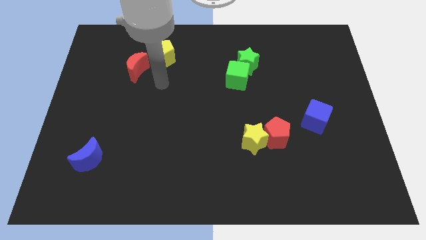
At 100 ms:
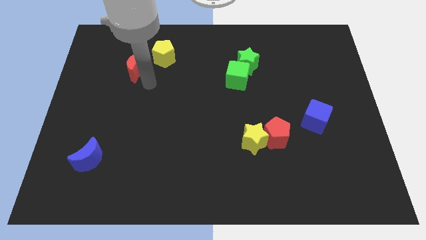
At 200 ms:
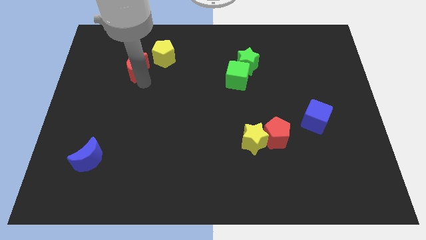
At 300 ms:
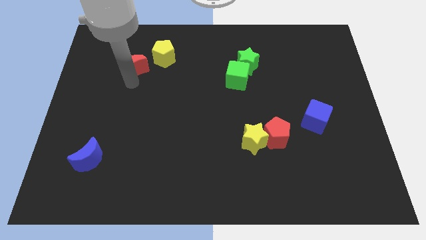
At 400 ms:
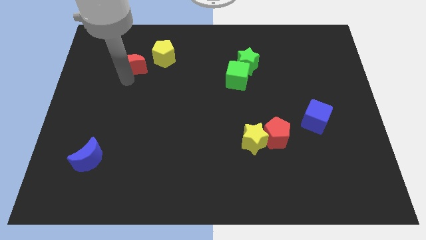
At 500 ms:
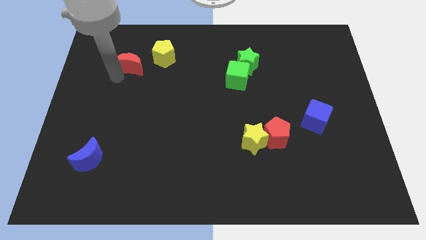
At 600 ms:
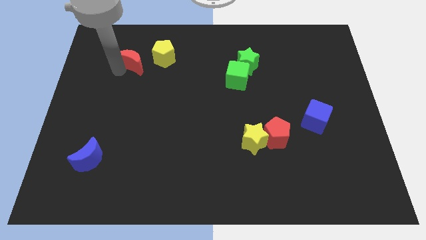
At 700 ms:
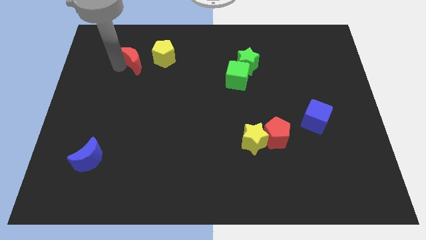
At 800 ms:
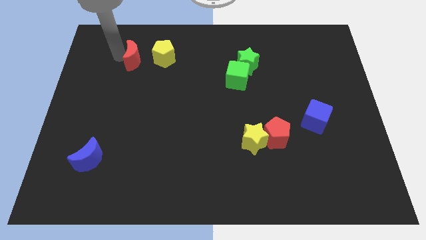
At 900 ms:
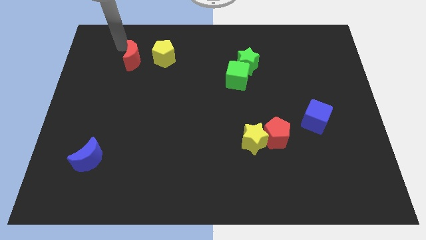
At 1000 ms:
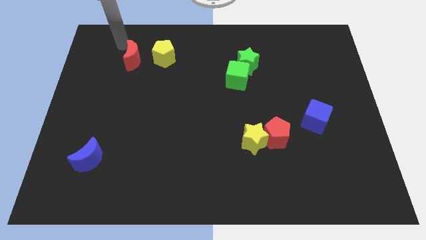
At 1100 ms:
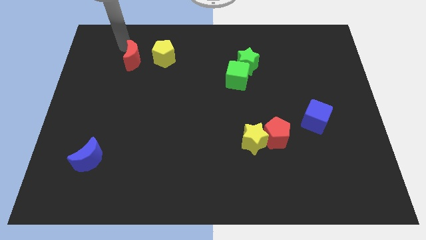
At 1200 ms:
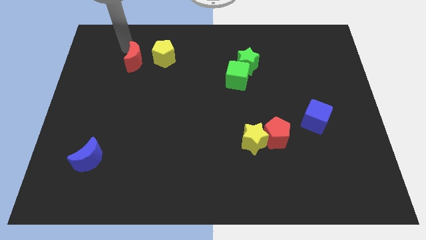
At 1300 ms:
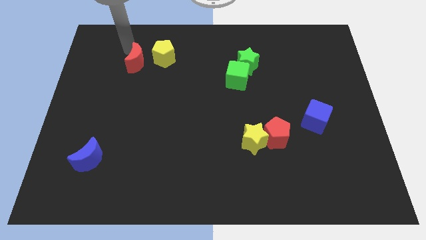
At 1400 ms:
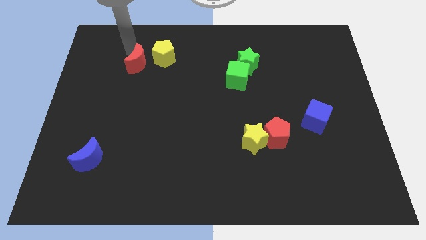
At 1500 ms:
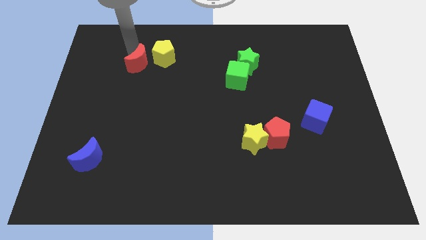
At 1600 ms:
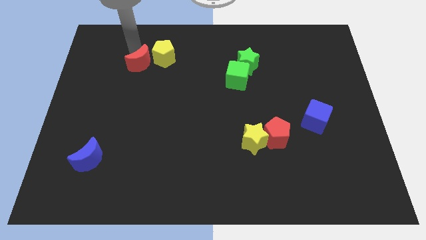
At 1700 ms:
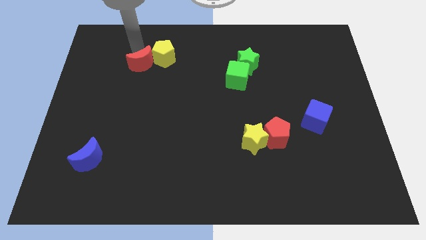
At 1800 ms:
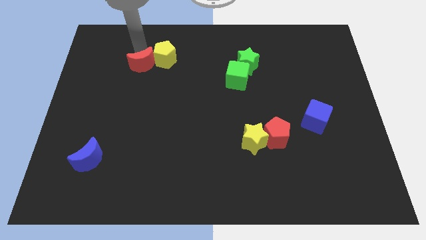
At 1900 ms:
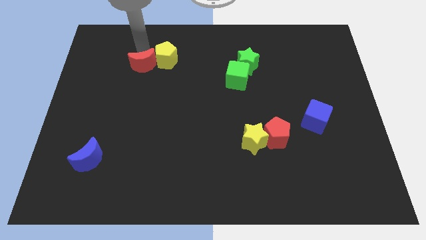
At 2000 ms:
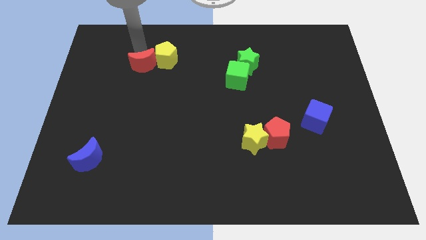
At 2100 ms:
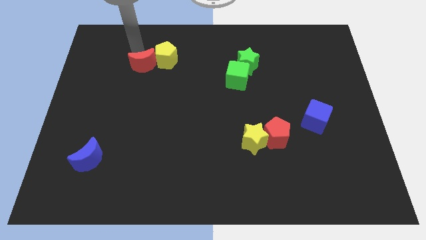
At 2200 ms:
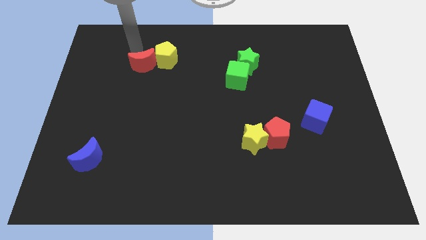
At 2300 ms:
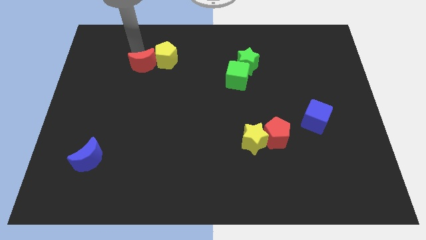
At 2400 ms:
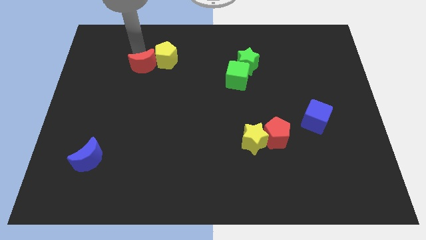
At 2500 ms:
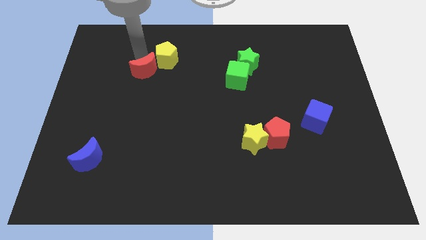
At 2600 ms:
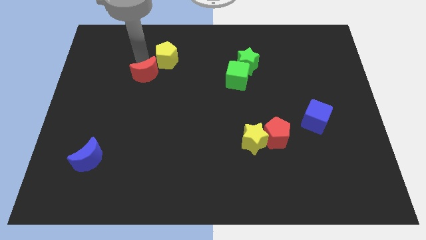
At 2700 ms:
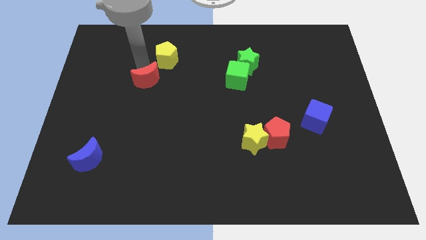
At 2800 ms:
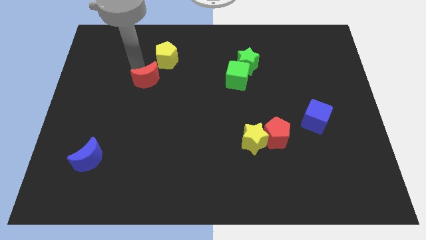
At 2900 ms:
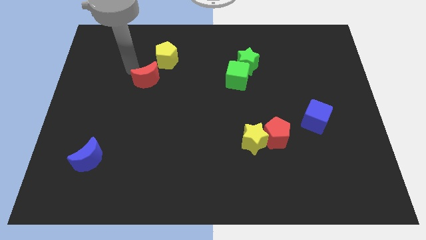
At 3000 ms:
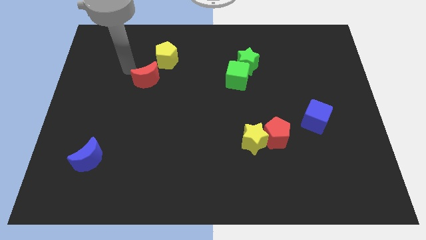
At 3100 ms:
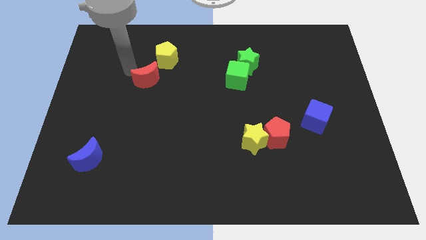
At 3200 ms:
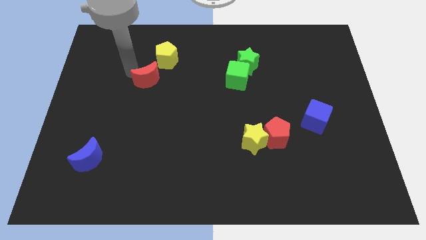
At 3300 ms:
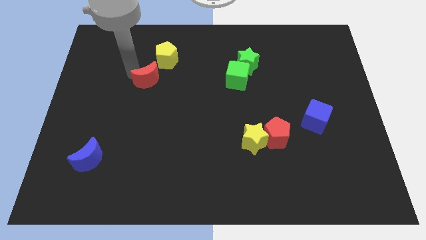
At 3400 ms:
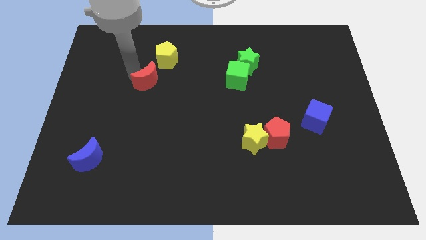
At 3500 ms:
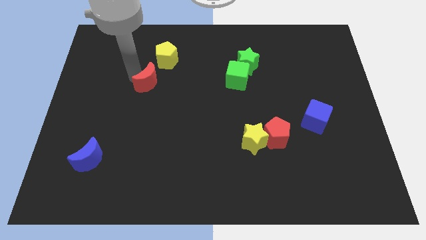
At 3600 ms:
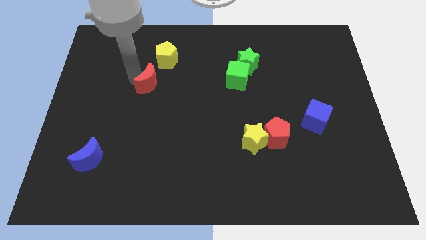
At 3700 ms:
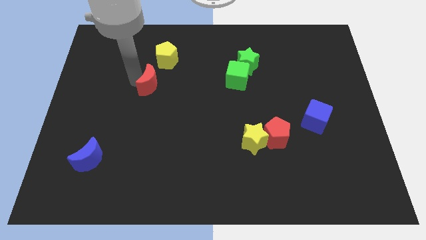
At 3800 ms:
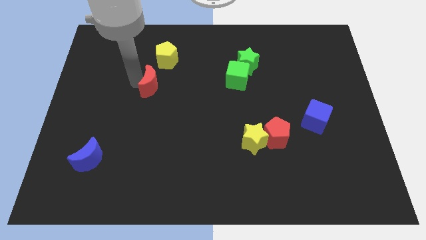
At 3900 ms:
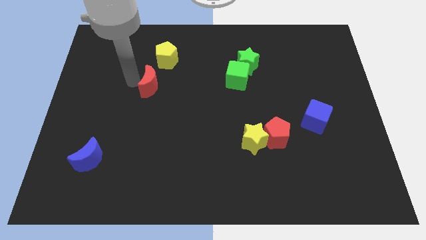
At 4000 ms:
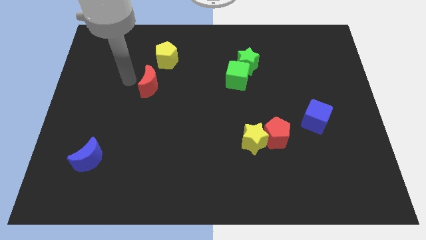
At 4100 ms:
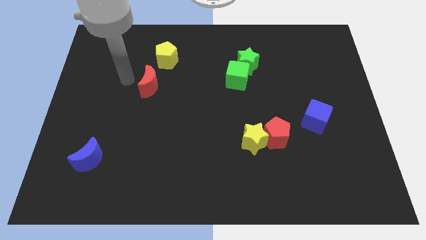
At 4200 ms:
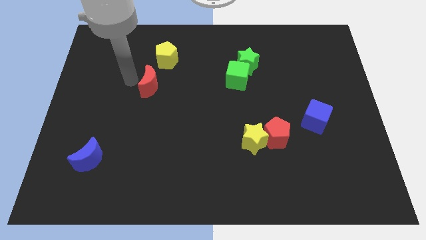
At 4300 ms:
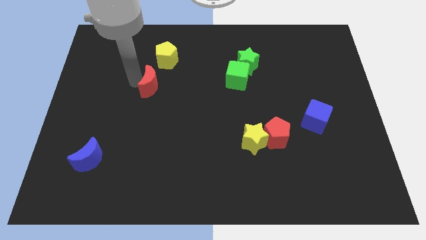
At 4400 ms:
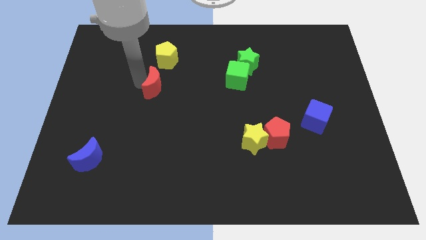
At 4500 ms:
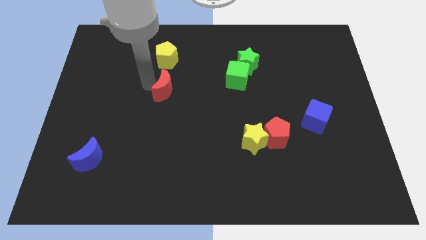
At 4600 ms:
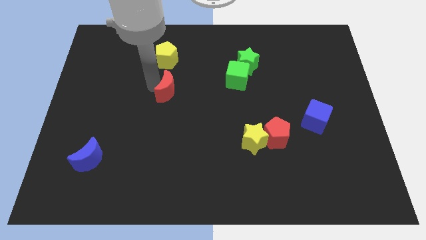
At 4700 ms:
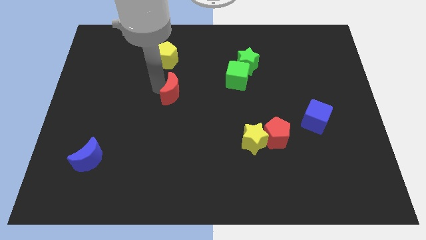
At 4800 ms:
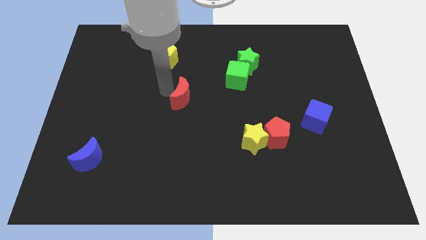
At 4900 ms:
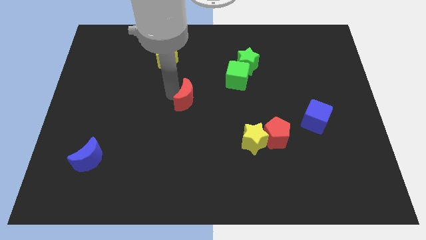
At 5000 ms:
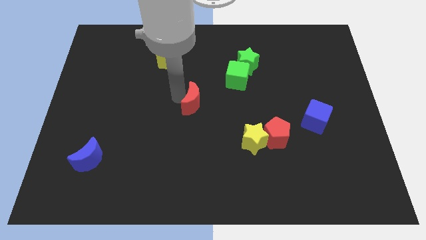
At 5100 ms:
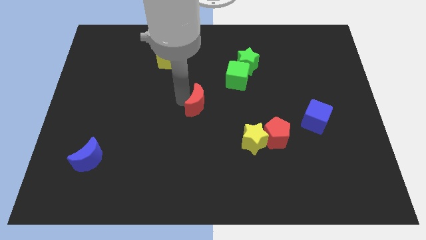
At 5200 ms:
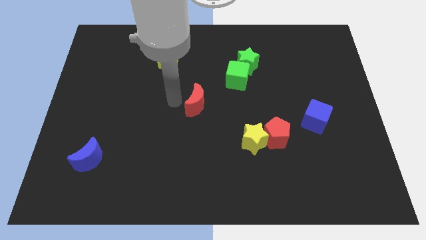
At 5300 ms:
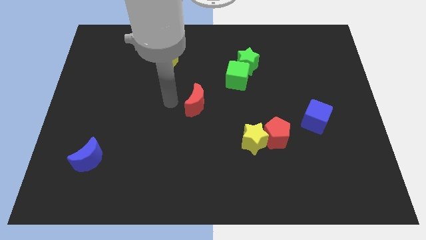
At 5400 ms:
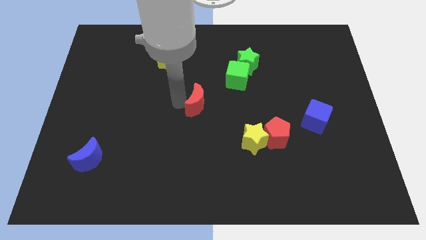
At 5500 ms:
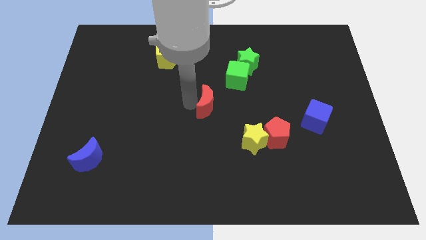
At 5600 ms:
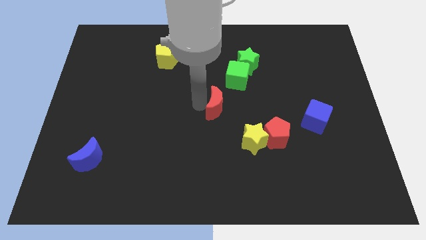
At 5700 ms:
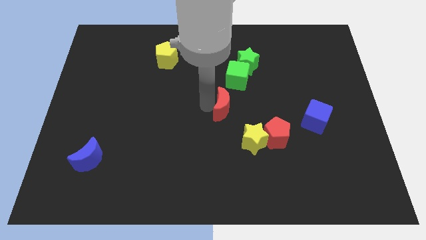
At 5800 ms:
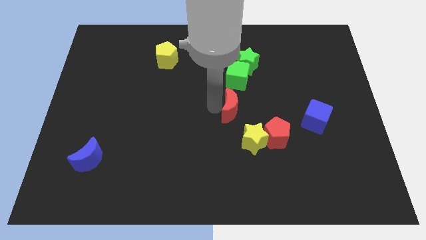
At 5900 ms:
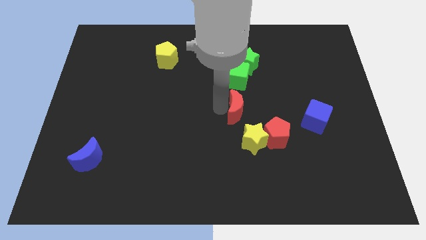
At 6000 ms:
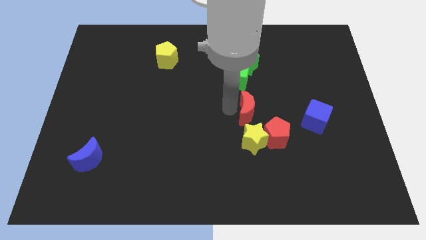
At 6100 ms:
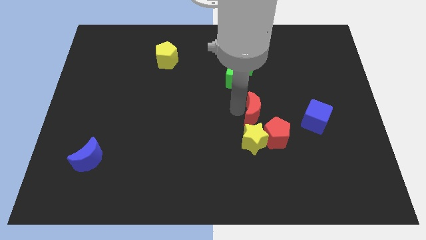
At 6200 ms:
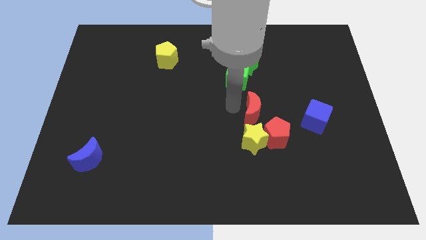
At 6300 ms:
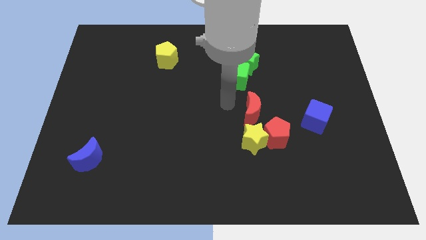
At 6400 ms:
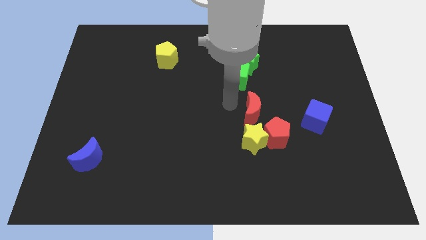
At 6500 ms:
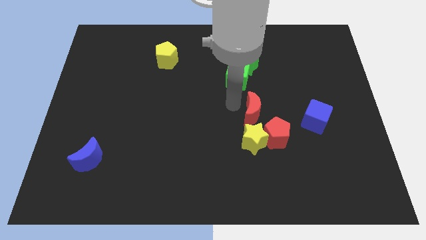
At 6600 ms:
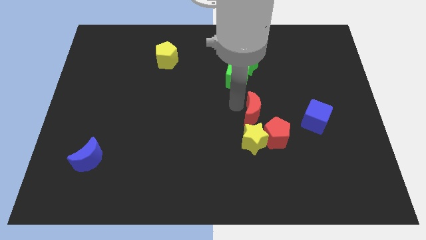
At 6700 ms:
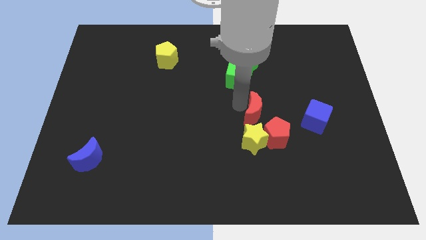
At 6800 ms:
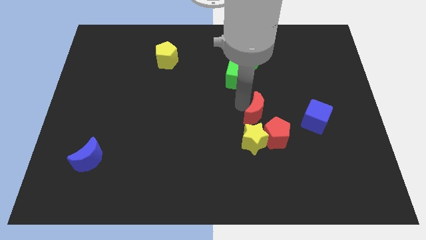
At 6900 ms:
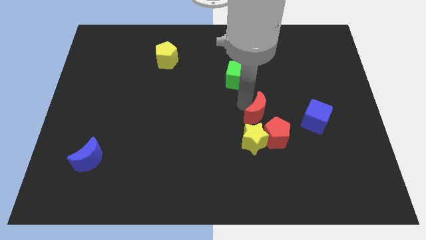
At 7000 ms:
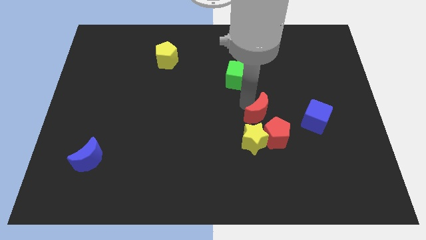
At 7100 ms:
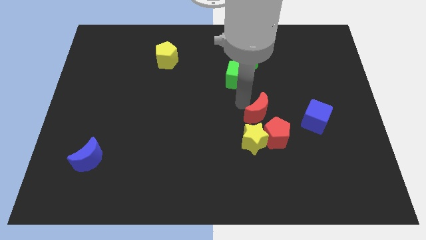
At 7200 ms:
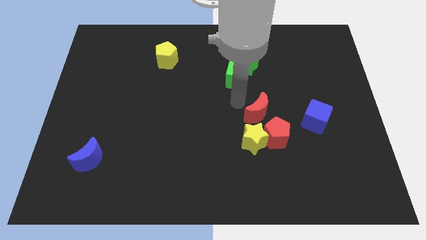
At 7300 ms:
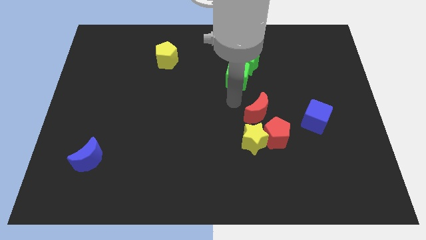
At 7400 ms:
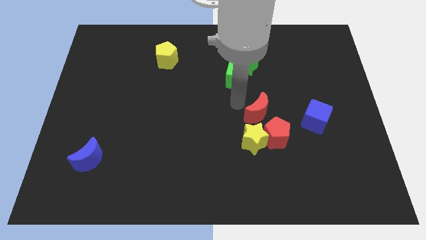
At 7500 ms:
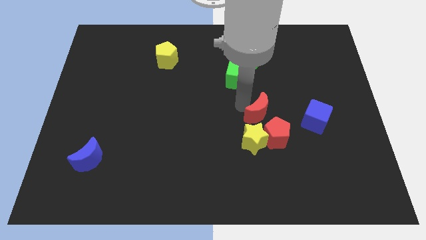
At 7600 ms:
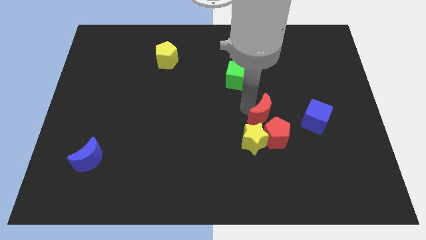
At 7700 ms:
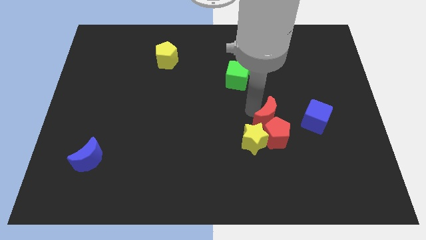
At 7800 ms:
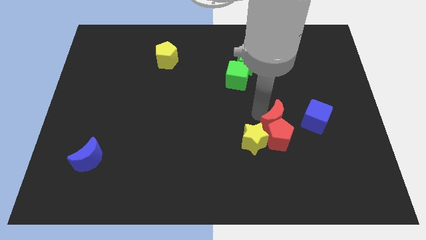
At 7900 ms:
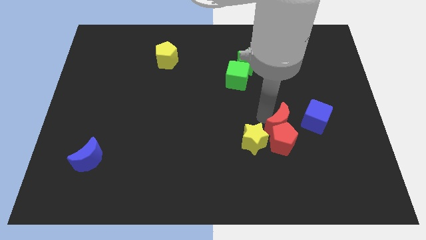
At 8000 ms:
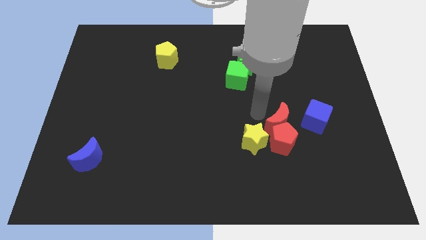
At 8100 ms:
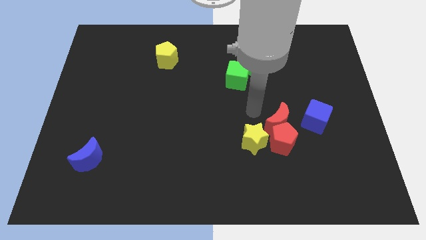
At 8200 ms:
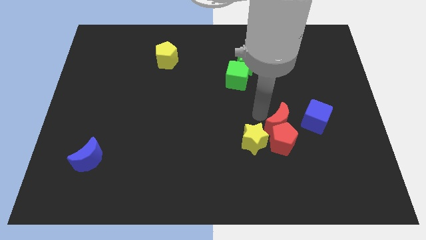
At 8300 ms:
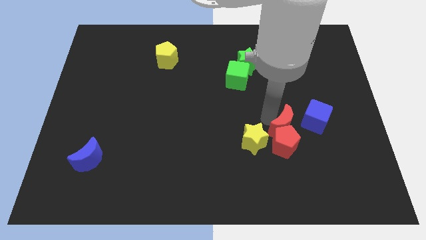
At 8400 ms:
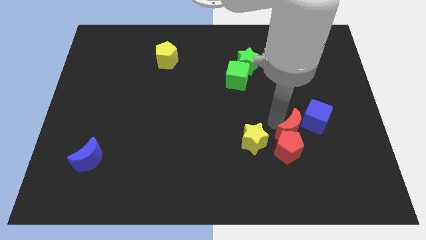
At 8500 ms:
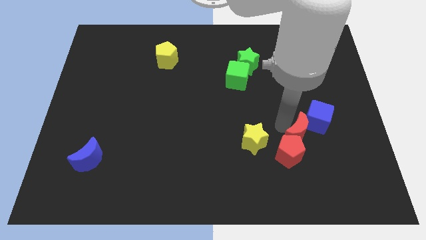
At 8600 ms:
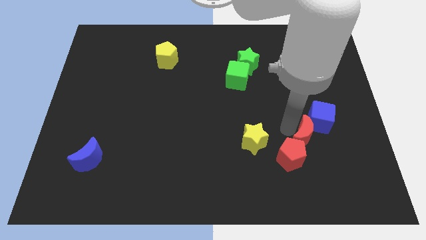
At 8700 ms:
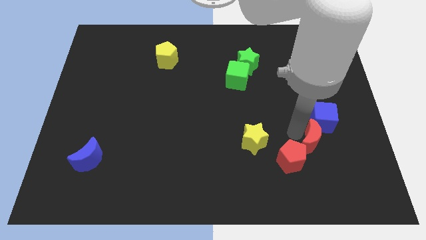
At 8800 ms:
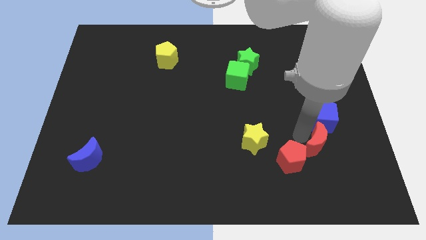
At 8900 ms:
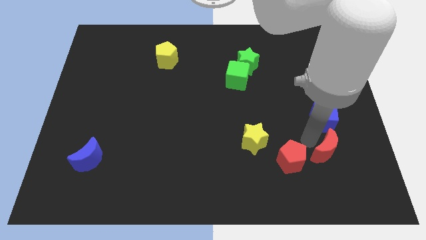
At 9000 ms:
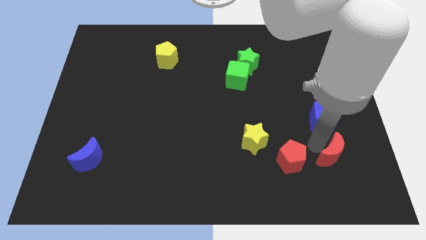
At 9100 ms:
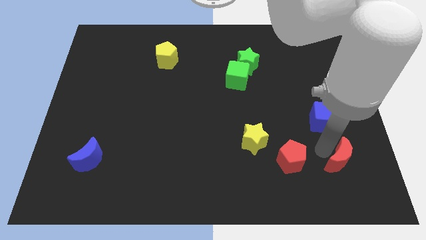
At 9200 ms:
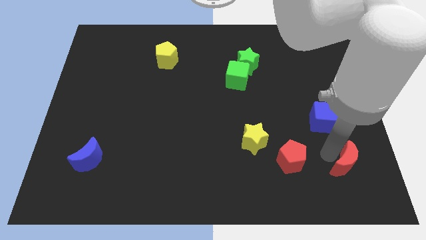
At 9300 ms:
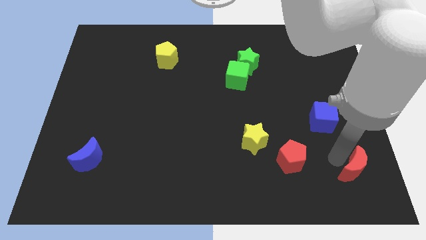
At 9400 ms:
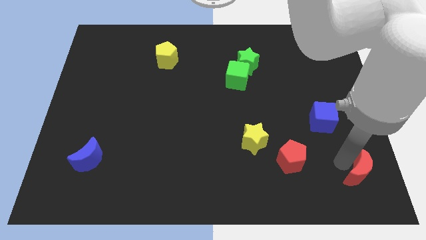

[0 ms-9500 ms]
slide the red moon to the lower right corner
